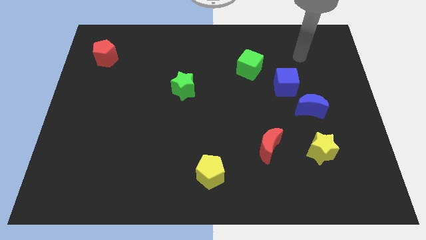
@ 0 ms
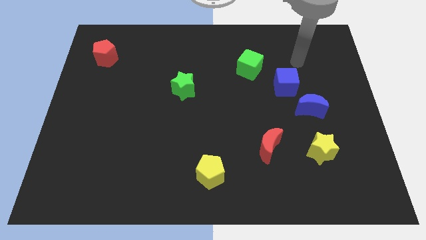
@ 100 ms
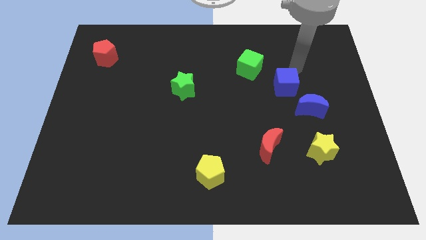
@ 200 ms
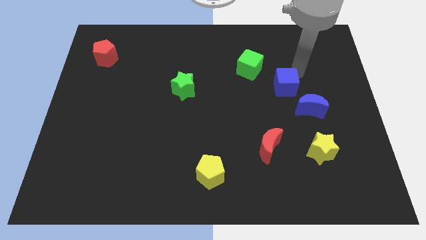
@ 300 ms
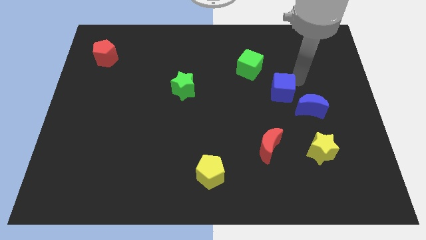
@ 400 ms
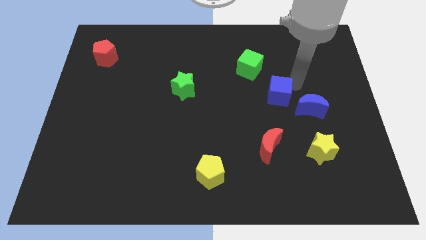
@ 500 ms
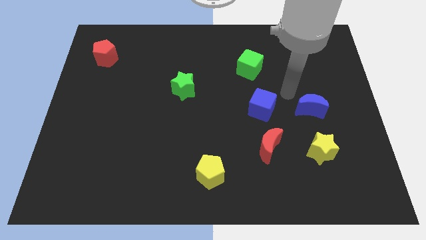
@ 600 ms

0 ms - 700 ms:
separate the blue moon from the blue cube

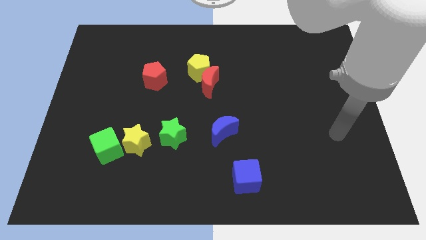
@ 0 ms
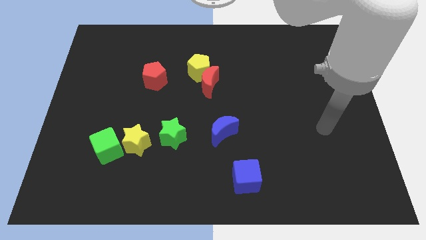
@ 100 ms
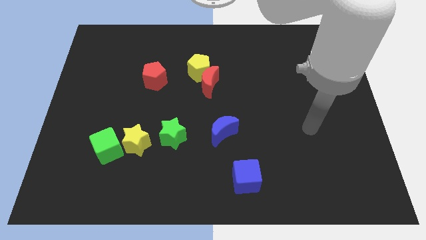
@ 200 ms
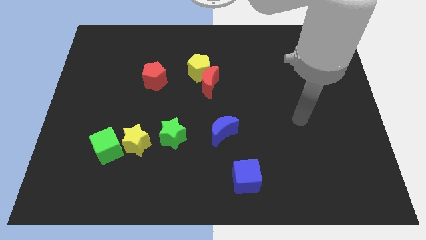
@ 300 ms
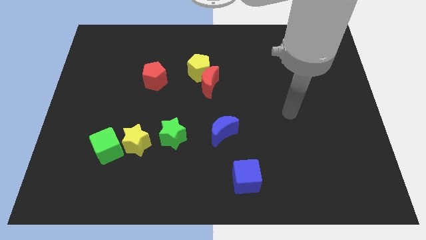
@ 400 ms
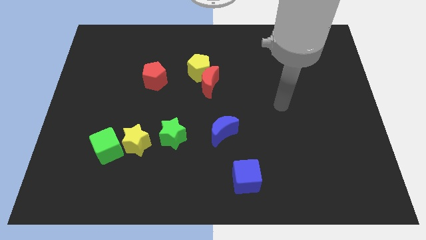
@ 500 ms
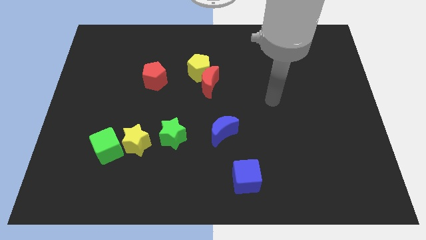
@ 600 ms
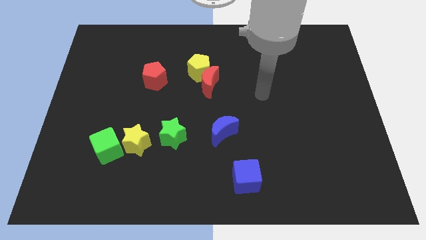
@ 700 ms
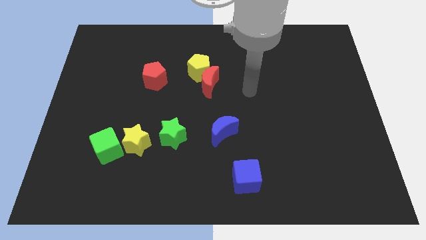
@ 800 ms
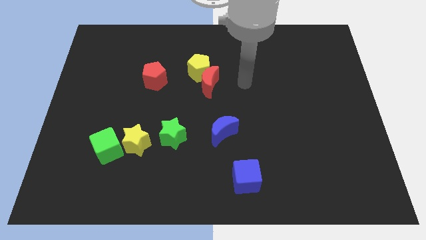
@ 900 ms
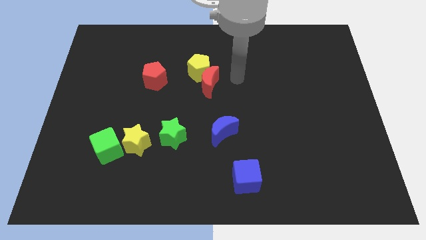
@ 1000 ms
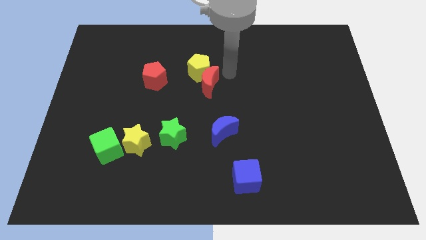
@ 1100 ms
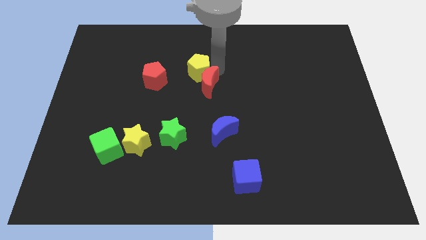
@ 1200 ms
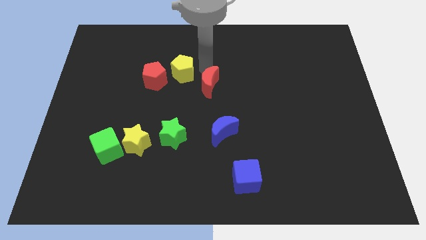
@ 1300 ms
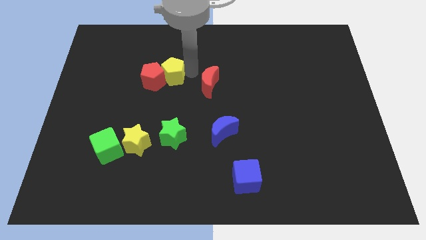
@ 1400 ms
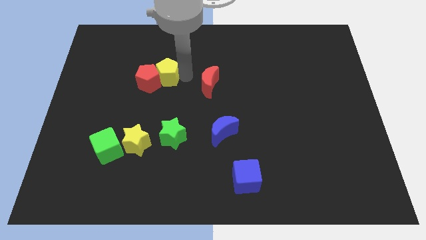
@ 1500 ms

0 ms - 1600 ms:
separate the red moon from the yellow pentagon

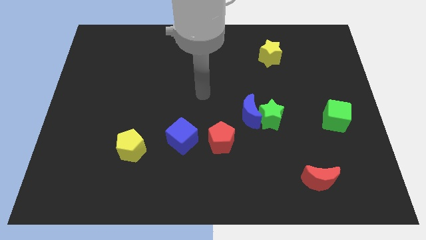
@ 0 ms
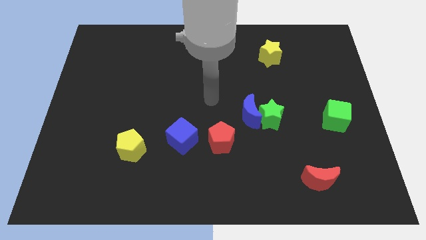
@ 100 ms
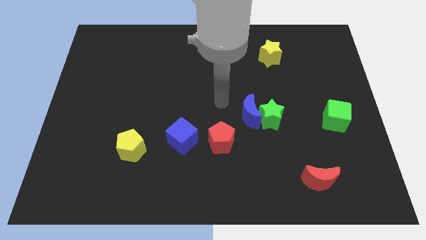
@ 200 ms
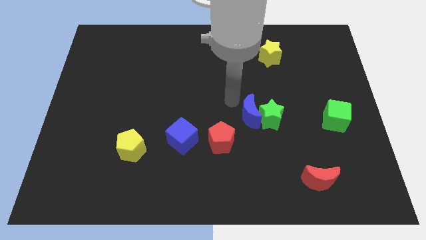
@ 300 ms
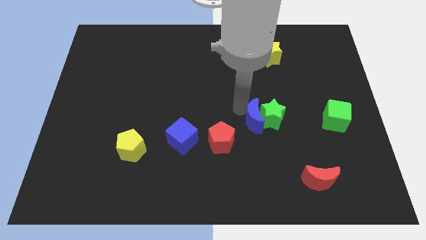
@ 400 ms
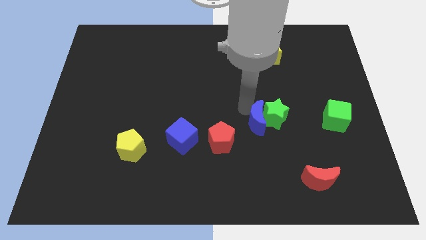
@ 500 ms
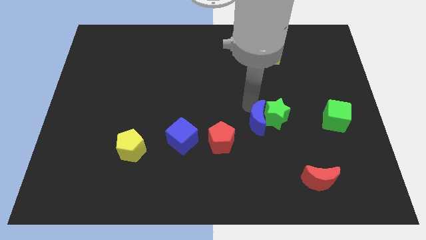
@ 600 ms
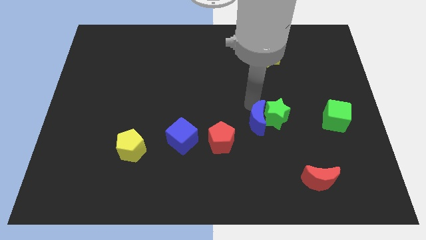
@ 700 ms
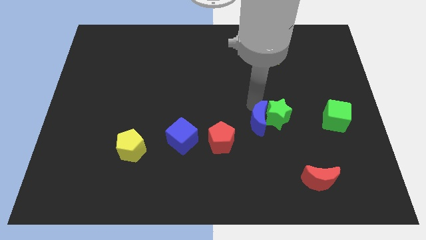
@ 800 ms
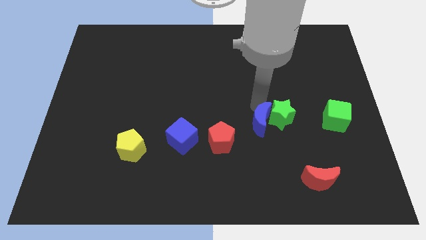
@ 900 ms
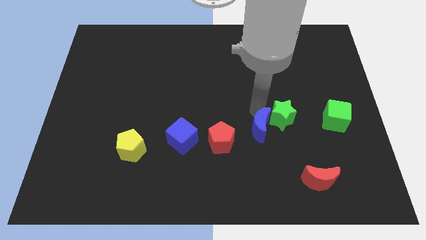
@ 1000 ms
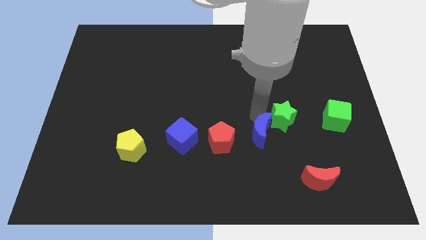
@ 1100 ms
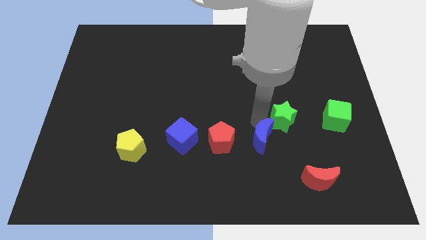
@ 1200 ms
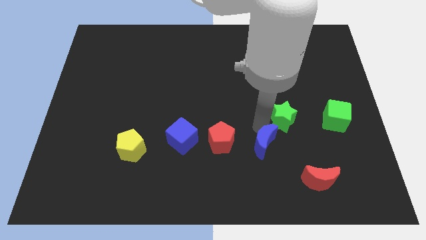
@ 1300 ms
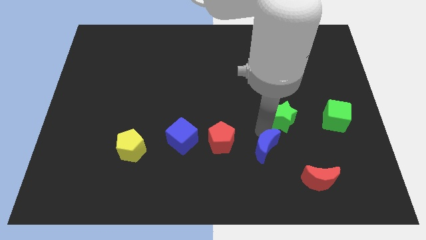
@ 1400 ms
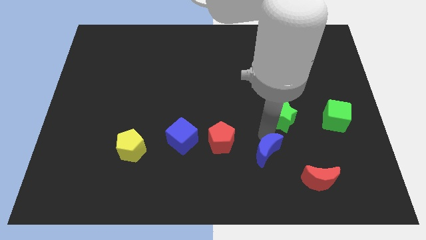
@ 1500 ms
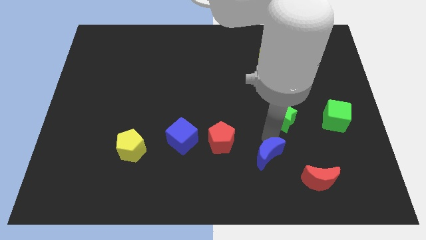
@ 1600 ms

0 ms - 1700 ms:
pull the green star apart from the blue moon

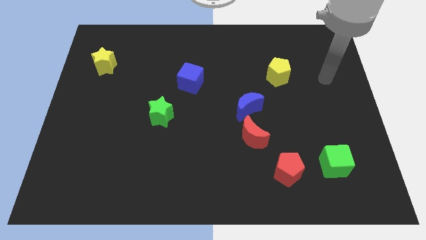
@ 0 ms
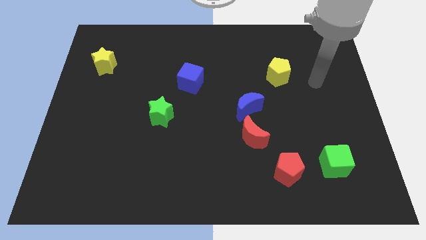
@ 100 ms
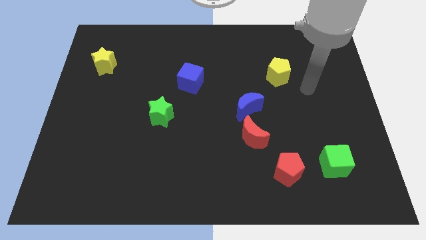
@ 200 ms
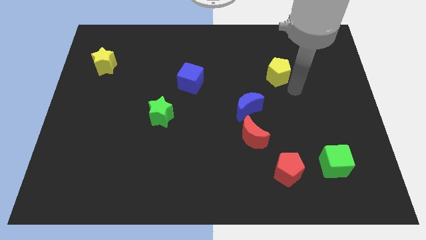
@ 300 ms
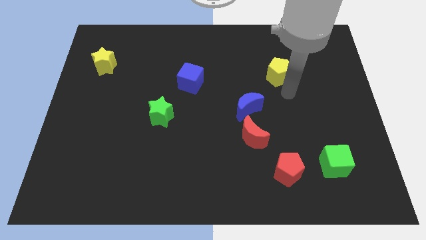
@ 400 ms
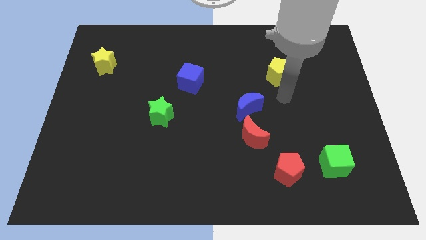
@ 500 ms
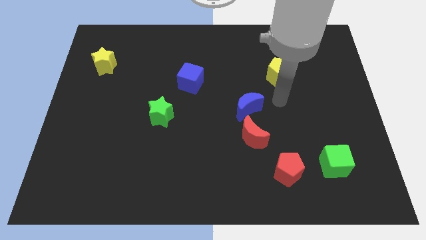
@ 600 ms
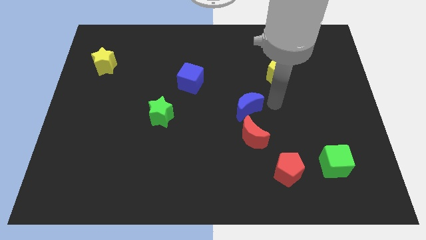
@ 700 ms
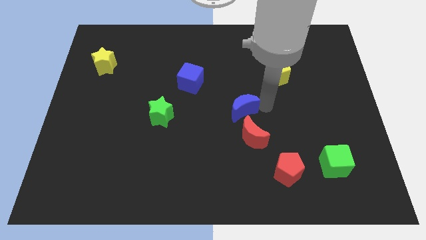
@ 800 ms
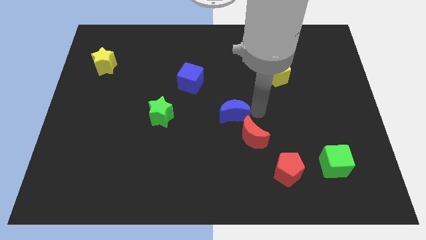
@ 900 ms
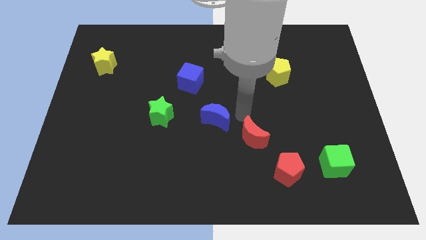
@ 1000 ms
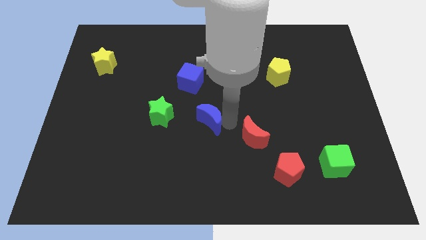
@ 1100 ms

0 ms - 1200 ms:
pull the red moon apart from the blue moon

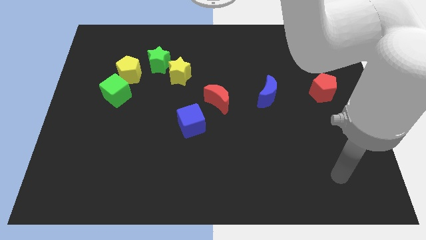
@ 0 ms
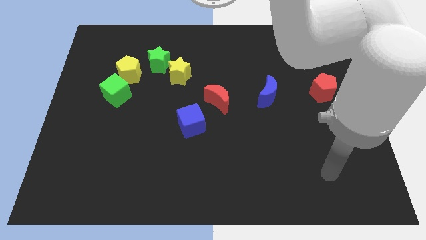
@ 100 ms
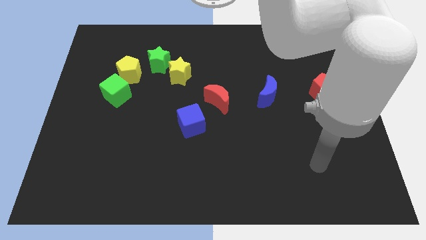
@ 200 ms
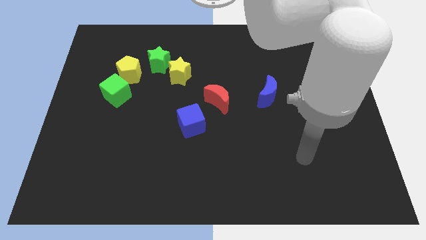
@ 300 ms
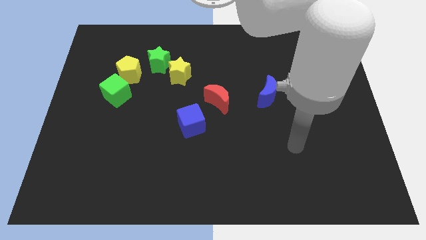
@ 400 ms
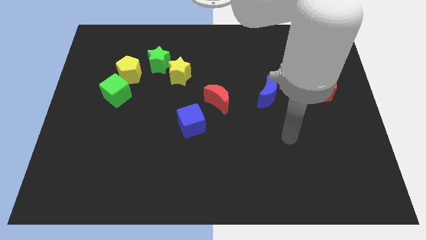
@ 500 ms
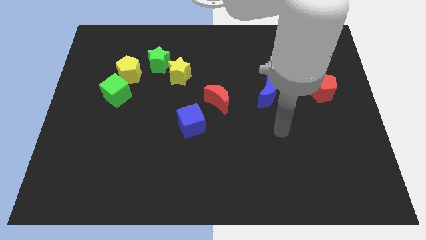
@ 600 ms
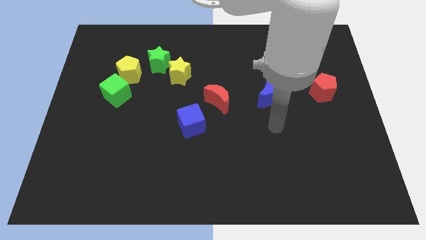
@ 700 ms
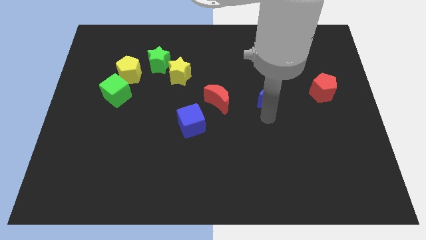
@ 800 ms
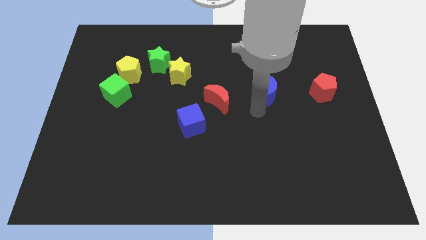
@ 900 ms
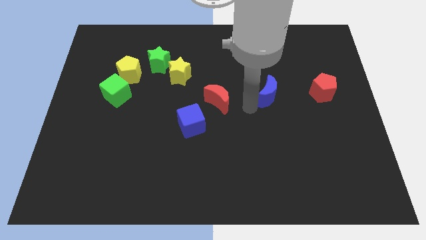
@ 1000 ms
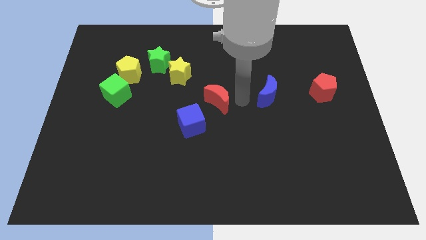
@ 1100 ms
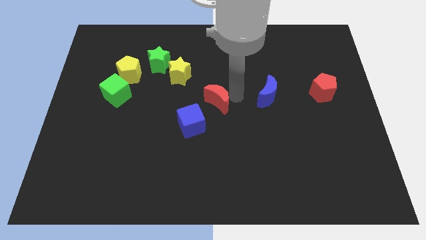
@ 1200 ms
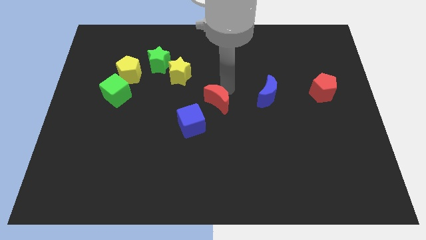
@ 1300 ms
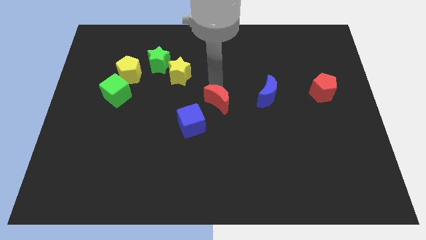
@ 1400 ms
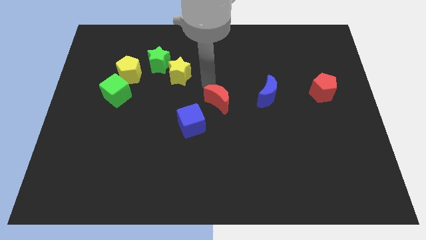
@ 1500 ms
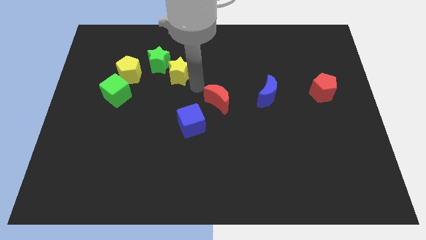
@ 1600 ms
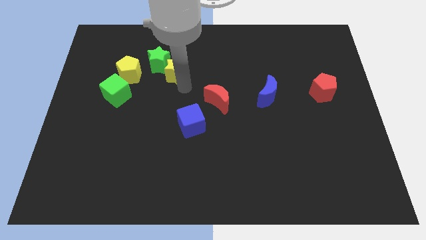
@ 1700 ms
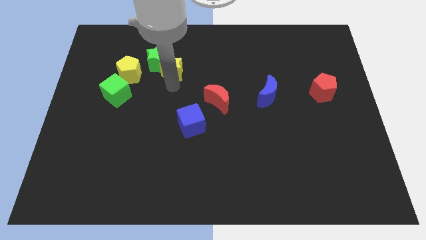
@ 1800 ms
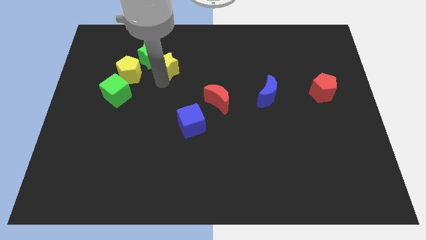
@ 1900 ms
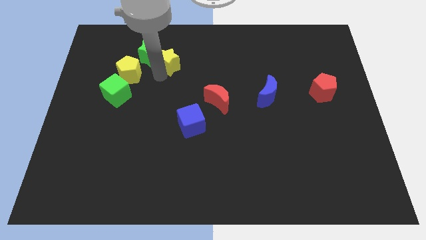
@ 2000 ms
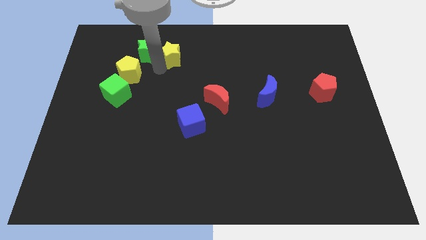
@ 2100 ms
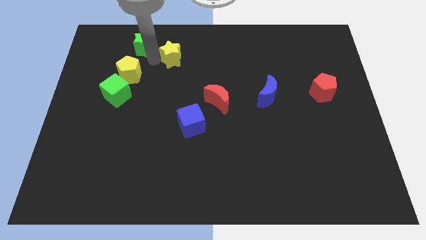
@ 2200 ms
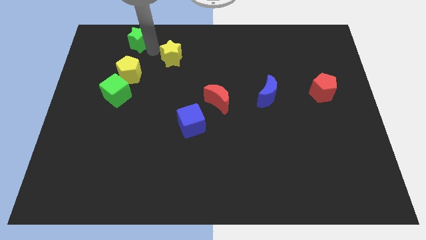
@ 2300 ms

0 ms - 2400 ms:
move the yellow star away from the green star

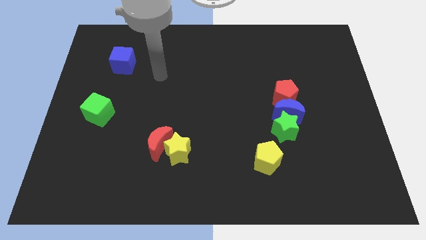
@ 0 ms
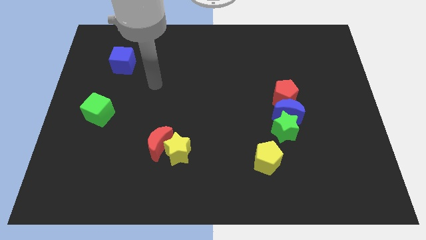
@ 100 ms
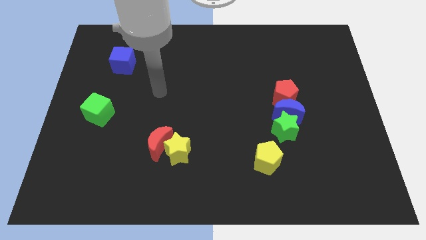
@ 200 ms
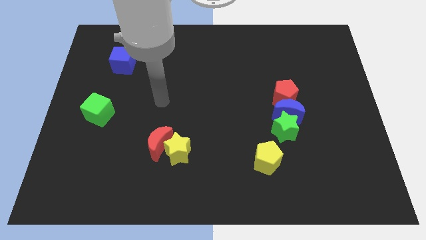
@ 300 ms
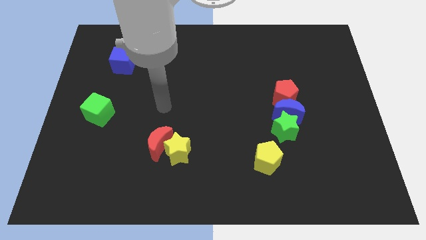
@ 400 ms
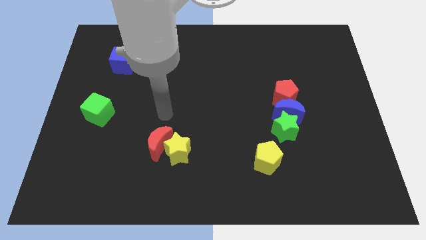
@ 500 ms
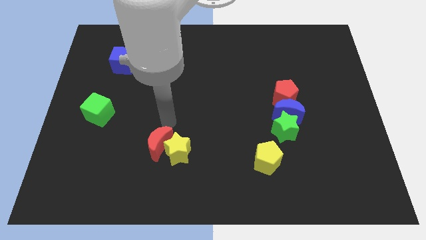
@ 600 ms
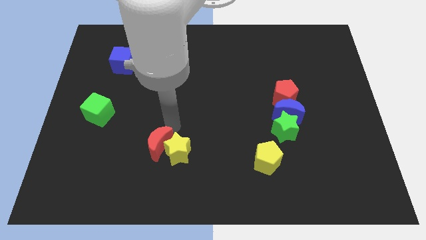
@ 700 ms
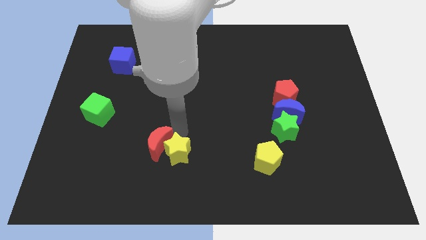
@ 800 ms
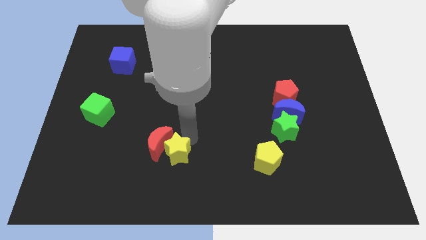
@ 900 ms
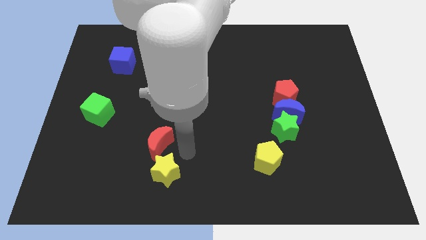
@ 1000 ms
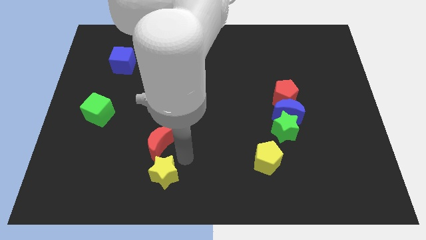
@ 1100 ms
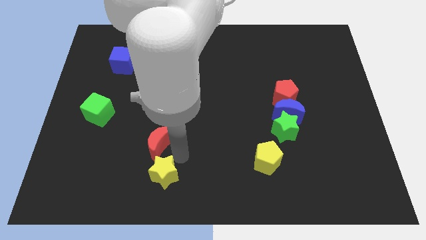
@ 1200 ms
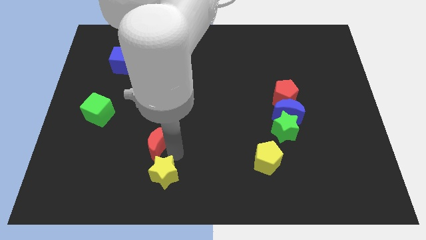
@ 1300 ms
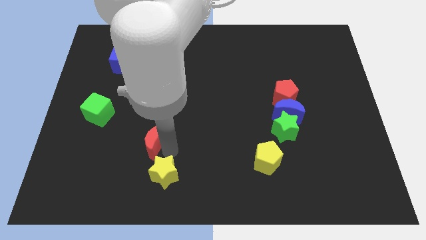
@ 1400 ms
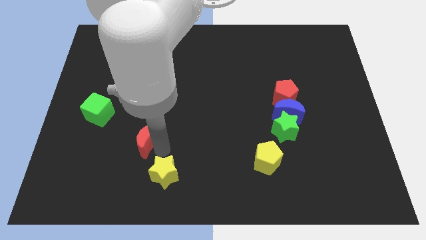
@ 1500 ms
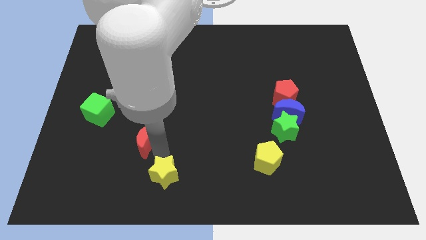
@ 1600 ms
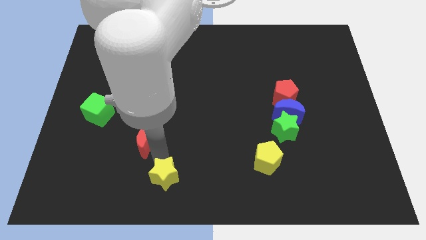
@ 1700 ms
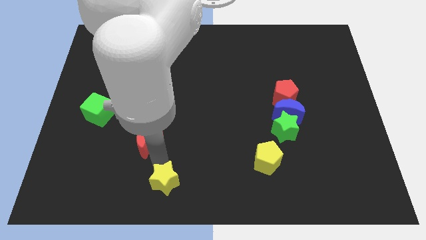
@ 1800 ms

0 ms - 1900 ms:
separate the red moon from the yellow star
